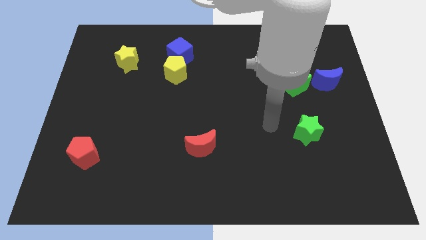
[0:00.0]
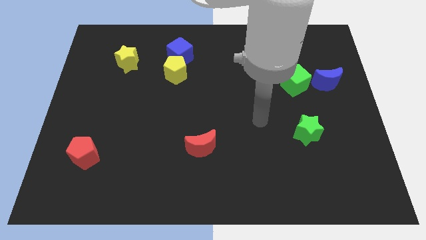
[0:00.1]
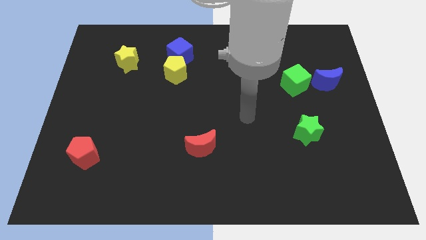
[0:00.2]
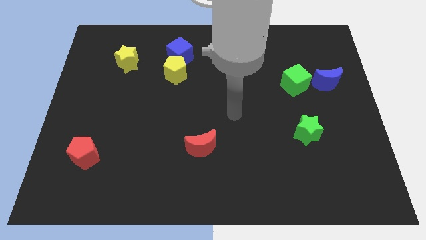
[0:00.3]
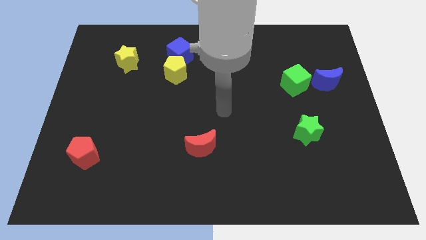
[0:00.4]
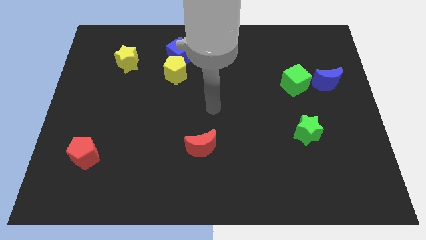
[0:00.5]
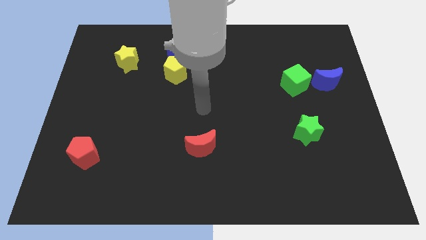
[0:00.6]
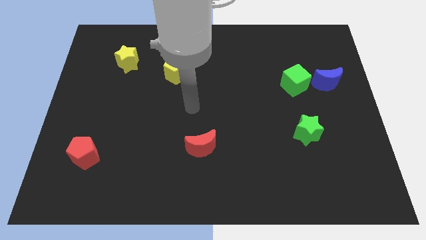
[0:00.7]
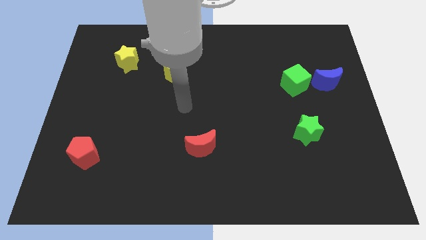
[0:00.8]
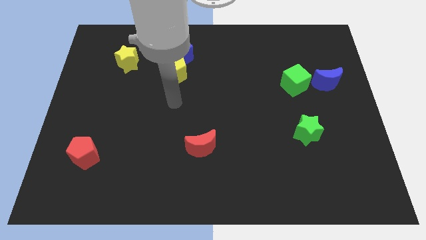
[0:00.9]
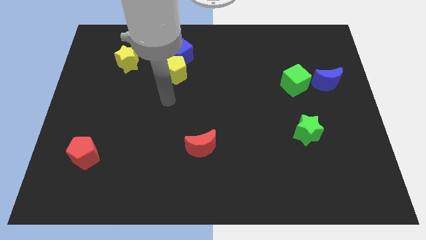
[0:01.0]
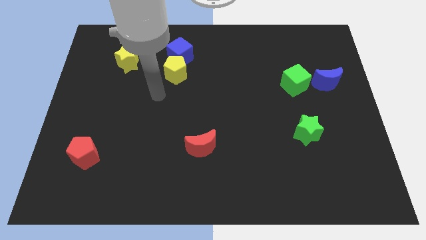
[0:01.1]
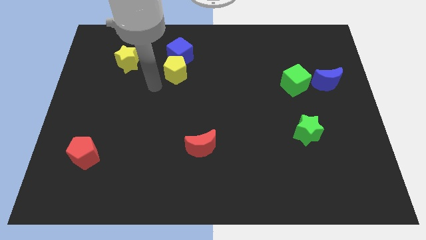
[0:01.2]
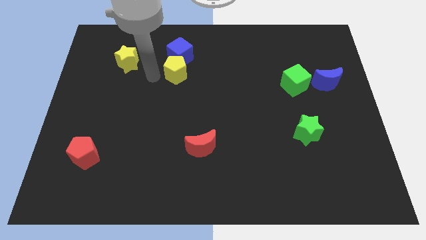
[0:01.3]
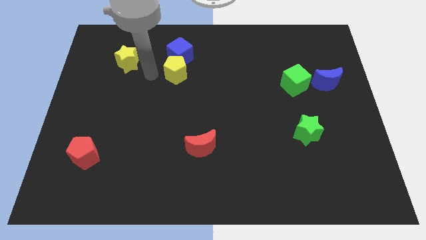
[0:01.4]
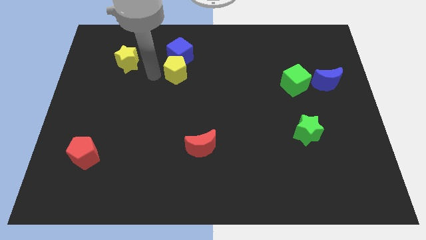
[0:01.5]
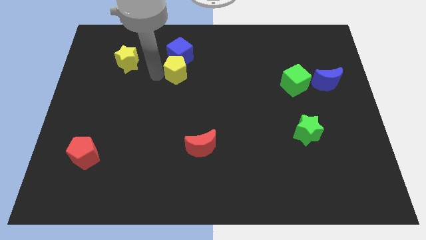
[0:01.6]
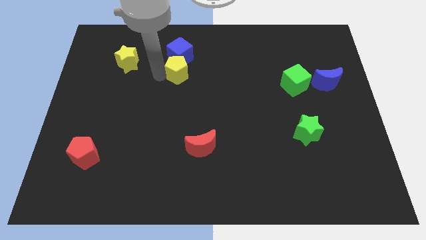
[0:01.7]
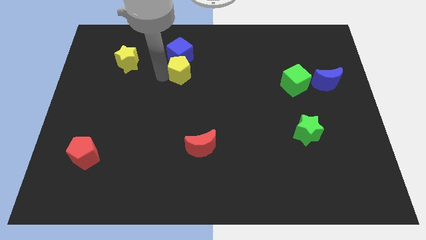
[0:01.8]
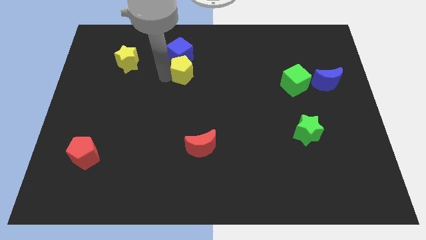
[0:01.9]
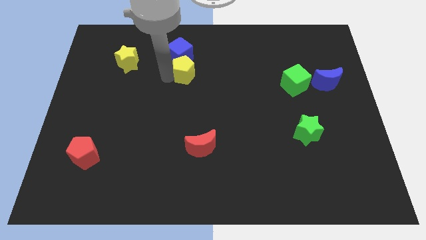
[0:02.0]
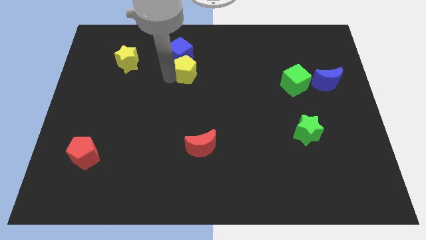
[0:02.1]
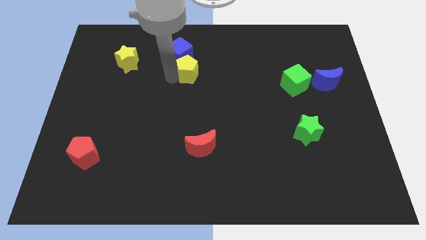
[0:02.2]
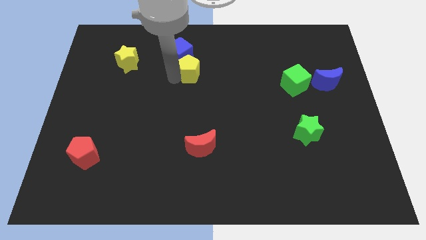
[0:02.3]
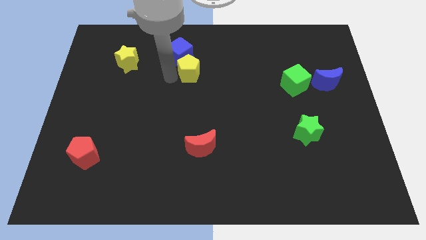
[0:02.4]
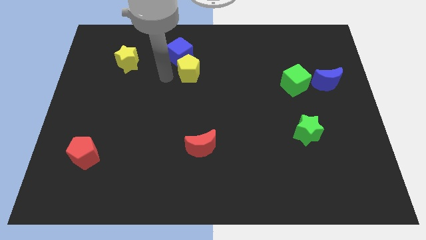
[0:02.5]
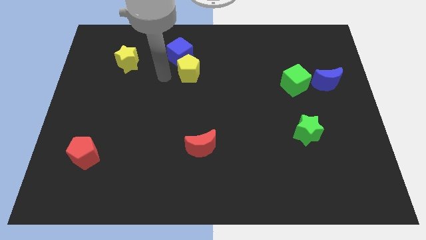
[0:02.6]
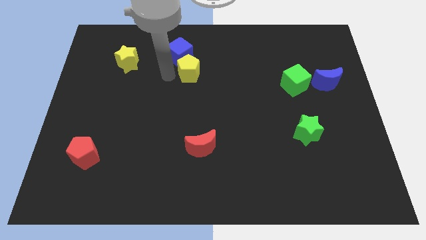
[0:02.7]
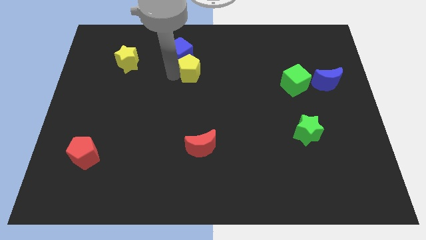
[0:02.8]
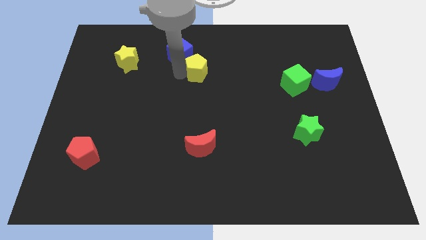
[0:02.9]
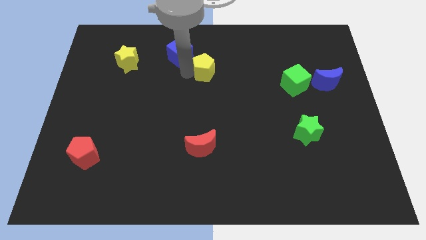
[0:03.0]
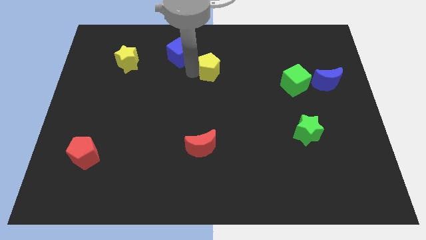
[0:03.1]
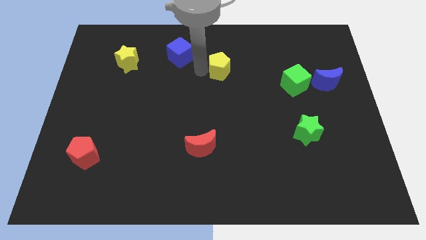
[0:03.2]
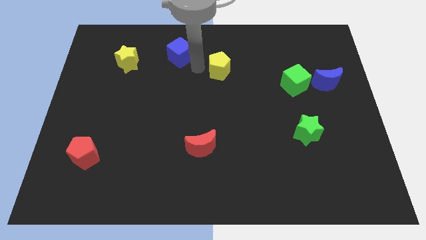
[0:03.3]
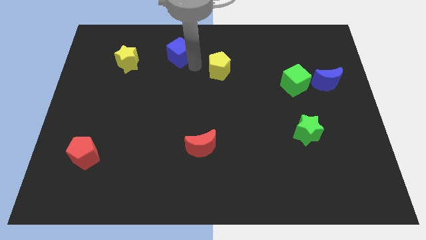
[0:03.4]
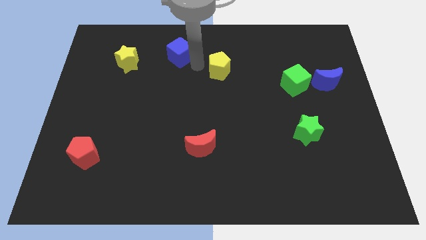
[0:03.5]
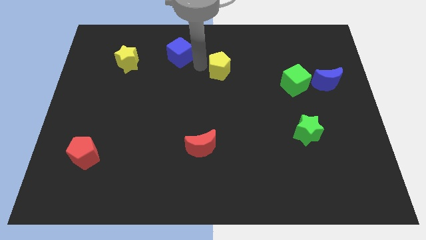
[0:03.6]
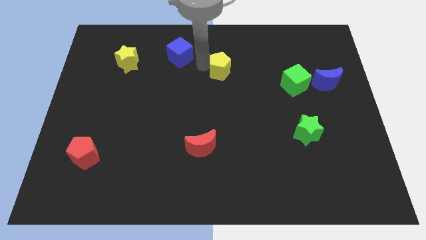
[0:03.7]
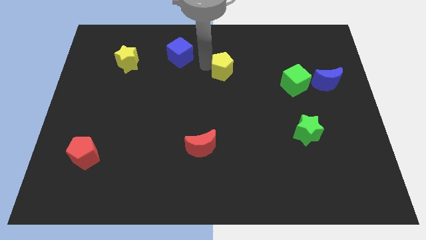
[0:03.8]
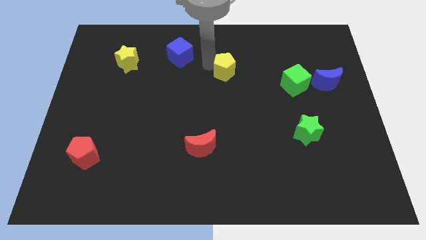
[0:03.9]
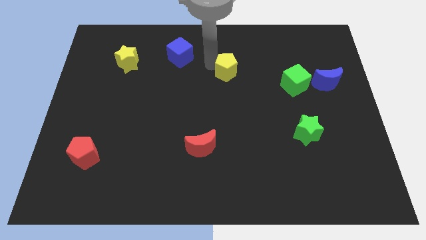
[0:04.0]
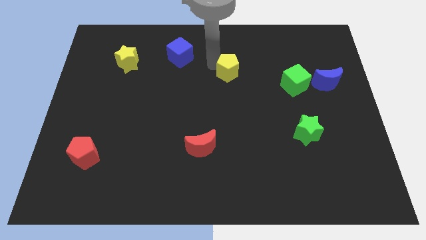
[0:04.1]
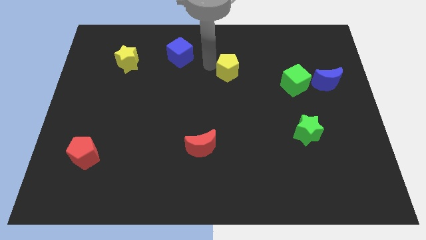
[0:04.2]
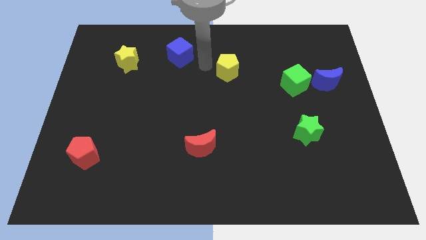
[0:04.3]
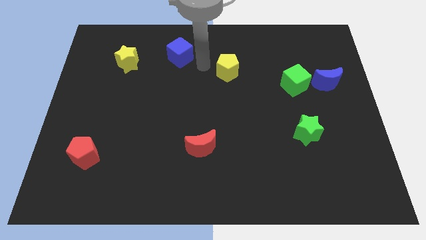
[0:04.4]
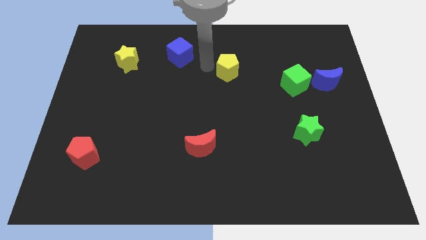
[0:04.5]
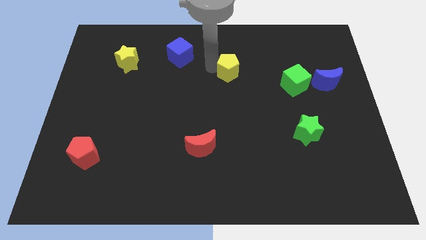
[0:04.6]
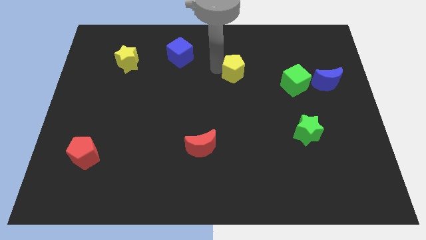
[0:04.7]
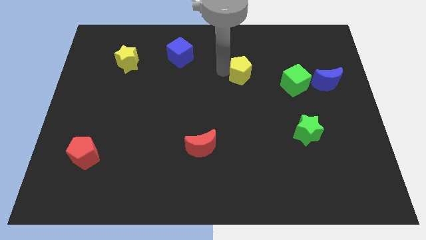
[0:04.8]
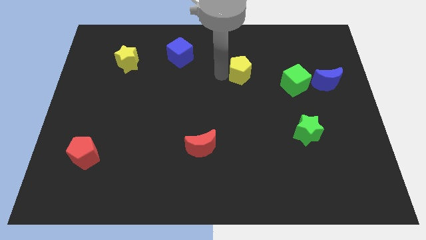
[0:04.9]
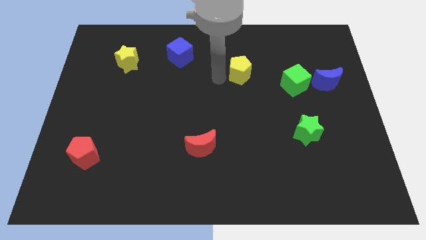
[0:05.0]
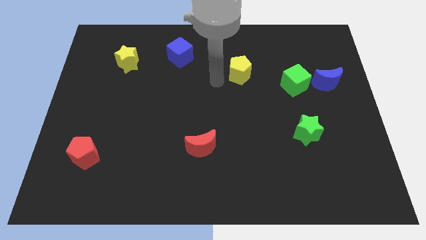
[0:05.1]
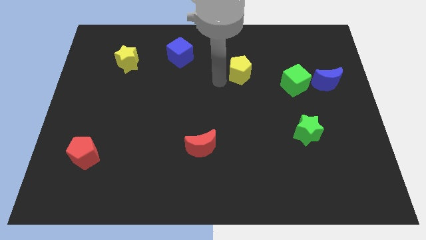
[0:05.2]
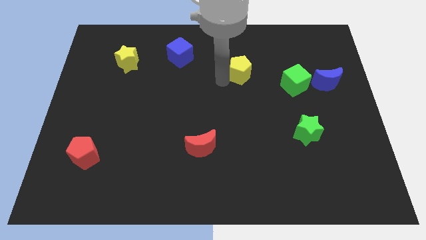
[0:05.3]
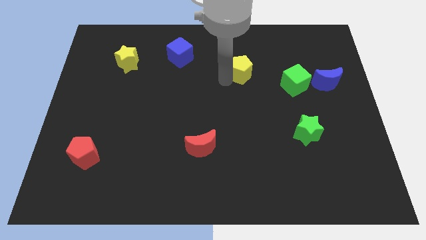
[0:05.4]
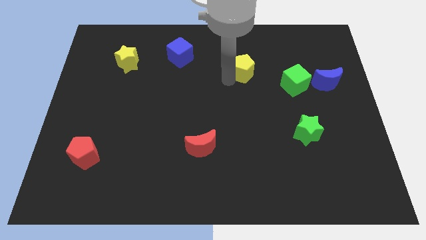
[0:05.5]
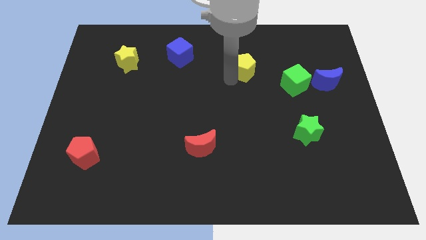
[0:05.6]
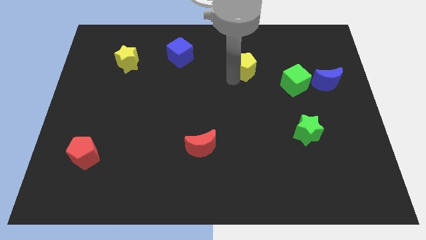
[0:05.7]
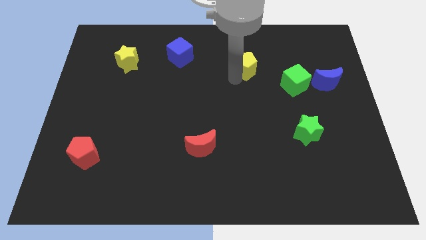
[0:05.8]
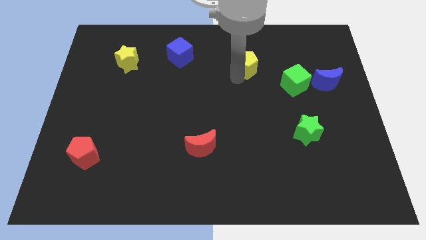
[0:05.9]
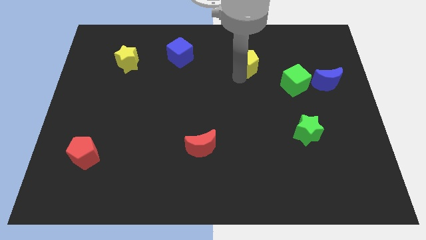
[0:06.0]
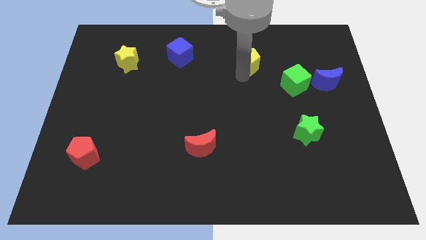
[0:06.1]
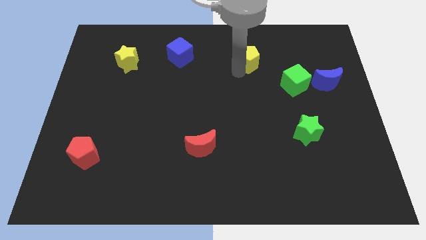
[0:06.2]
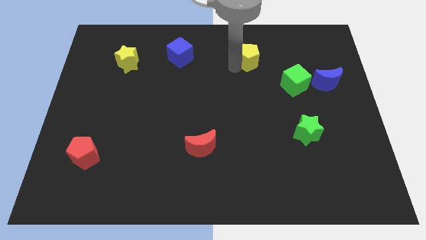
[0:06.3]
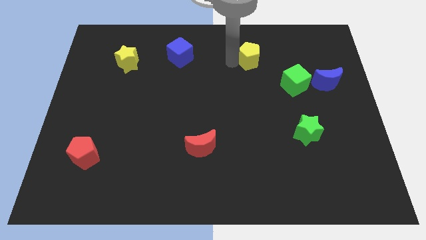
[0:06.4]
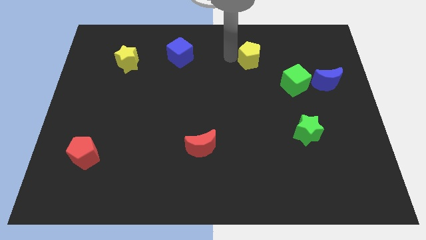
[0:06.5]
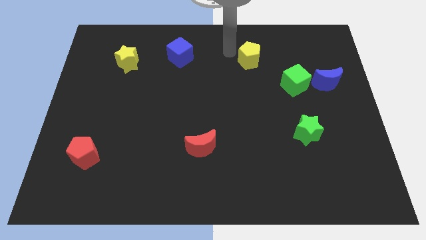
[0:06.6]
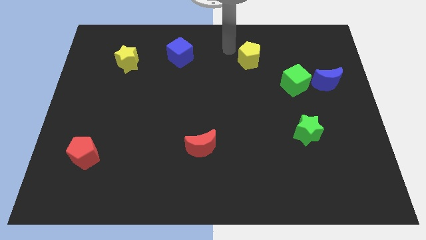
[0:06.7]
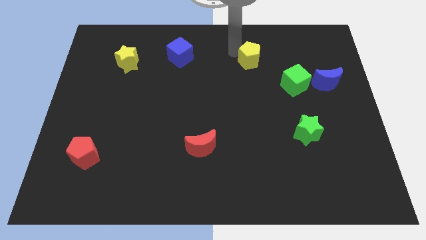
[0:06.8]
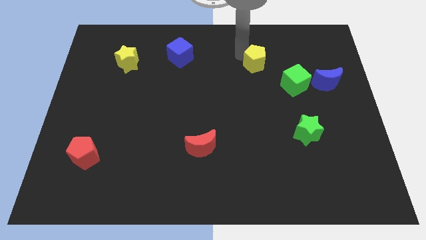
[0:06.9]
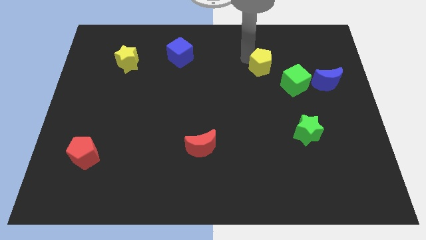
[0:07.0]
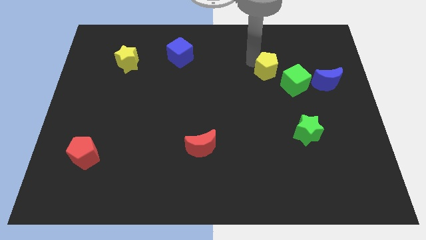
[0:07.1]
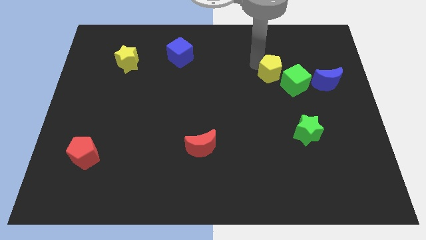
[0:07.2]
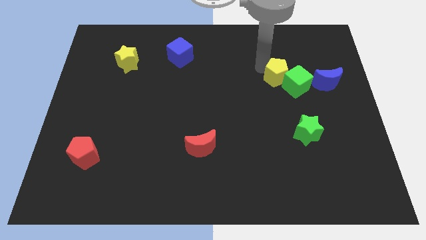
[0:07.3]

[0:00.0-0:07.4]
slide the yellow pentagon close to the green cube
